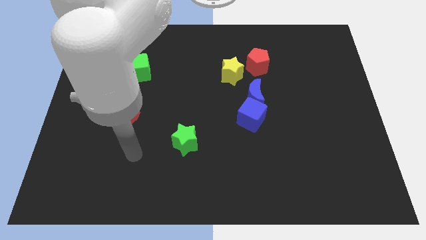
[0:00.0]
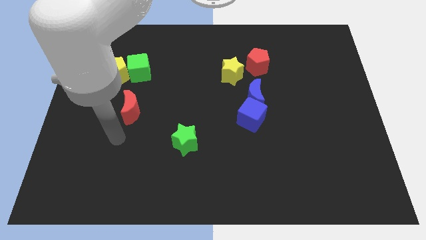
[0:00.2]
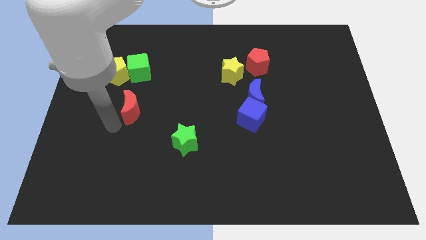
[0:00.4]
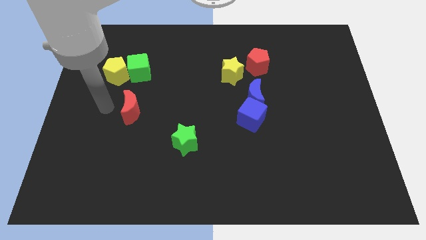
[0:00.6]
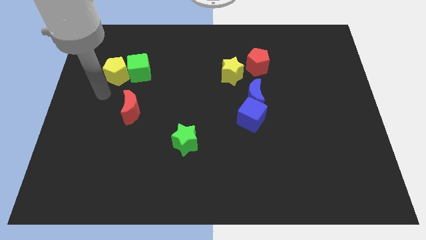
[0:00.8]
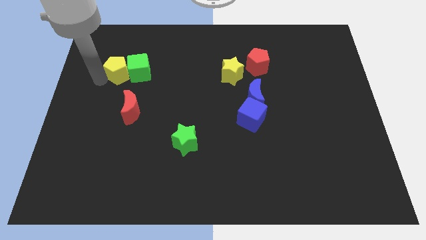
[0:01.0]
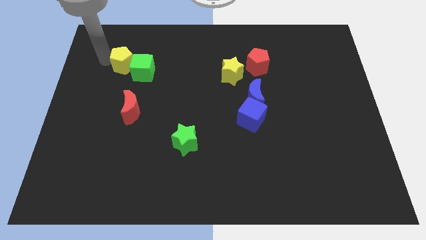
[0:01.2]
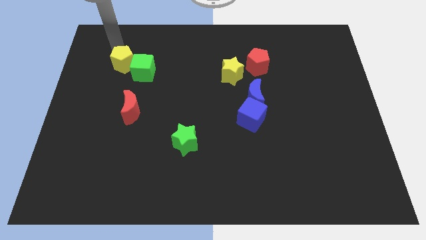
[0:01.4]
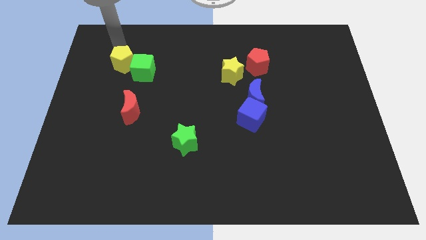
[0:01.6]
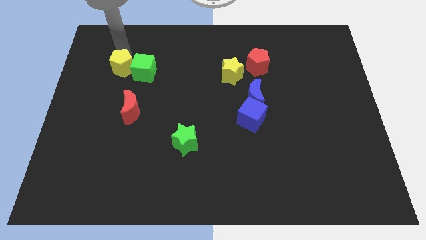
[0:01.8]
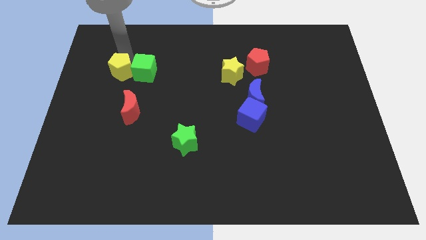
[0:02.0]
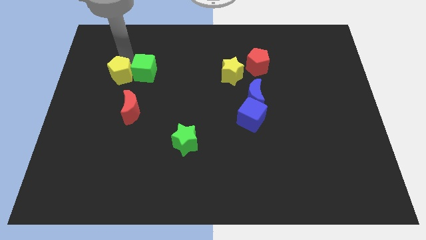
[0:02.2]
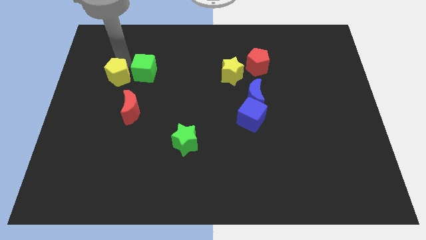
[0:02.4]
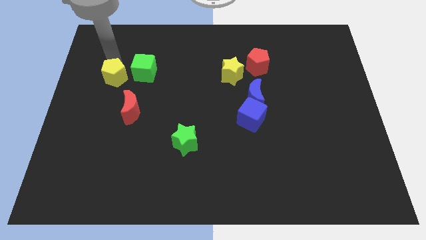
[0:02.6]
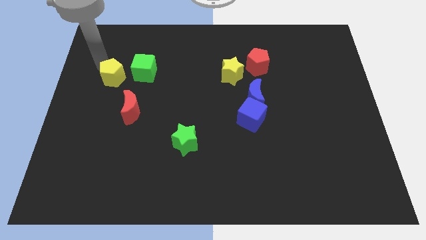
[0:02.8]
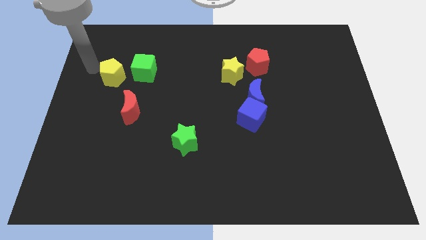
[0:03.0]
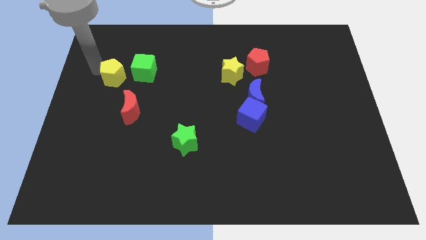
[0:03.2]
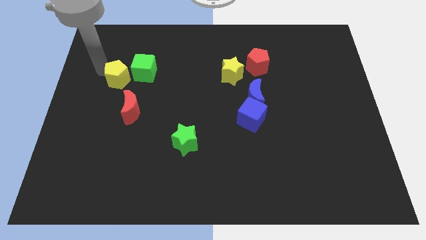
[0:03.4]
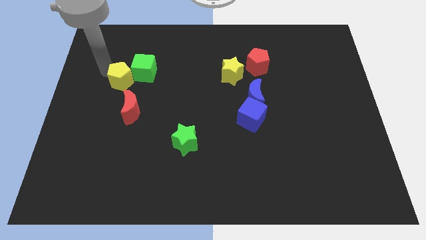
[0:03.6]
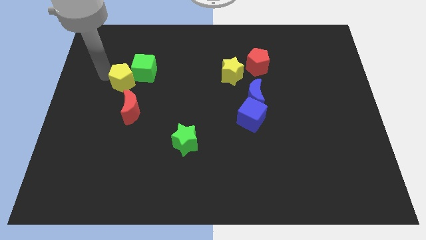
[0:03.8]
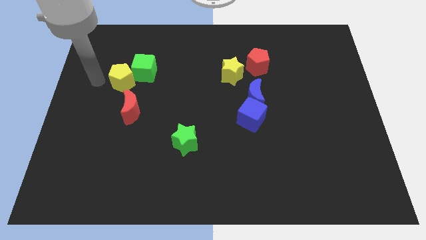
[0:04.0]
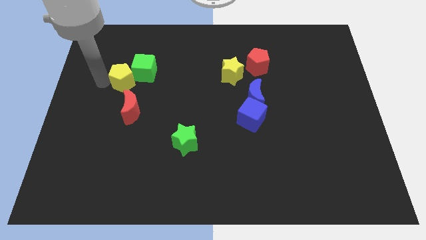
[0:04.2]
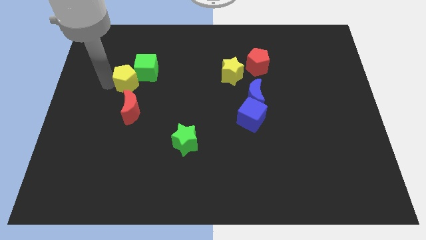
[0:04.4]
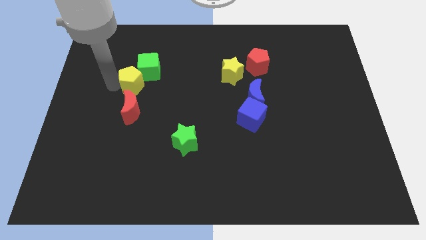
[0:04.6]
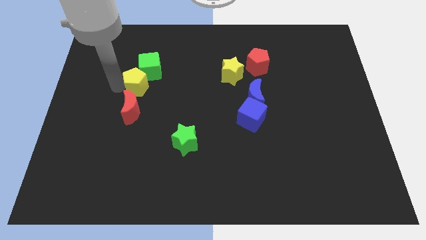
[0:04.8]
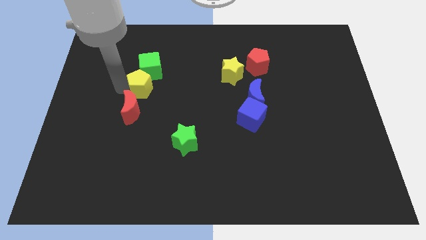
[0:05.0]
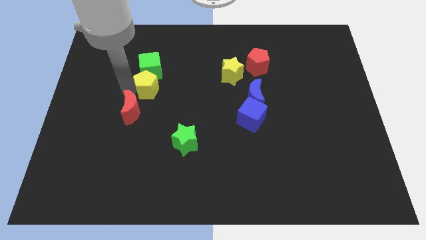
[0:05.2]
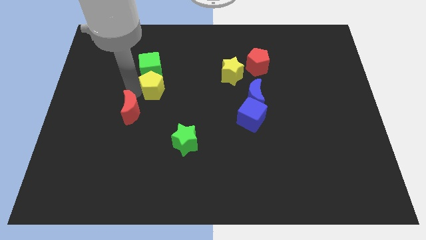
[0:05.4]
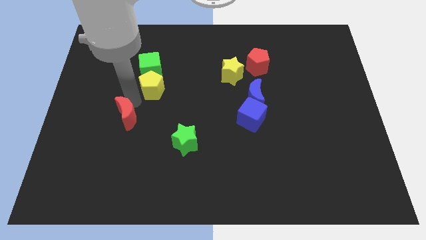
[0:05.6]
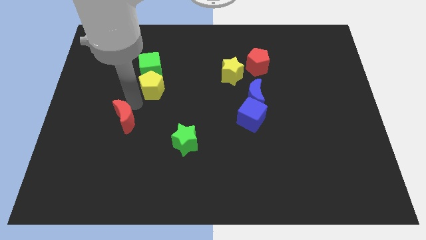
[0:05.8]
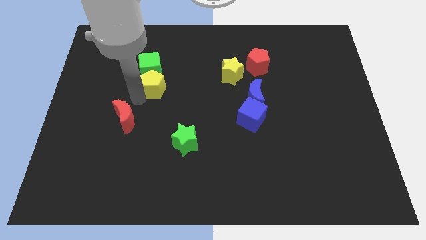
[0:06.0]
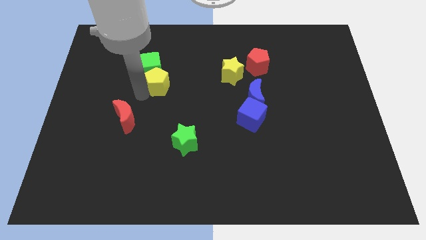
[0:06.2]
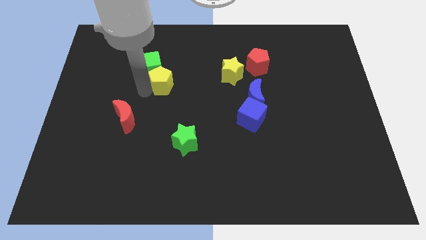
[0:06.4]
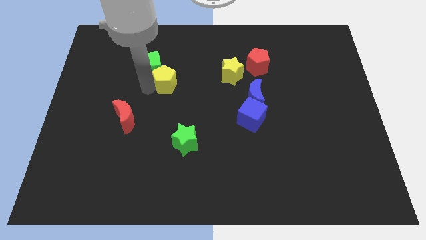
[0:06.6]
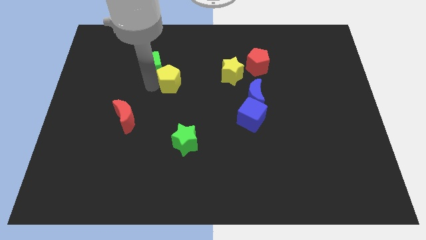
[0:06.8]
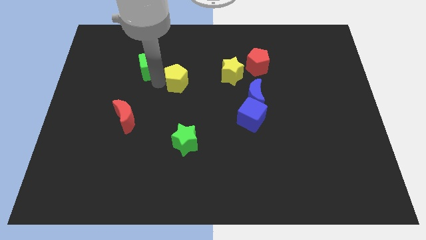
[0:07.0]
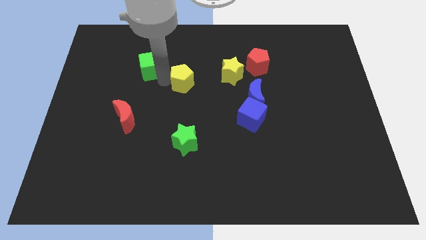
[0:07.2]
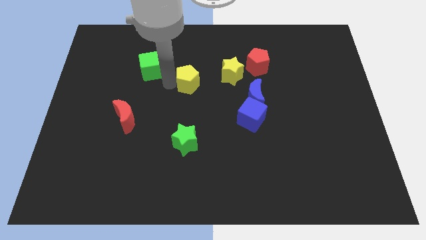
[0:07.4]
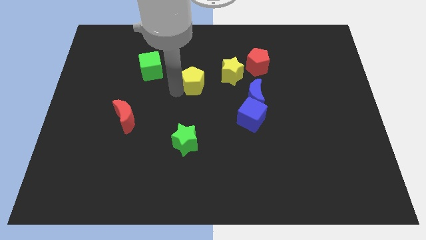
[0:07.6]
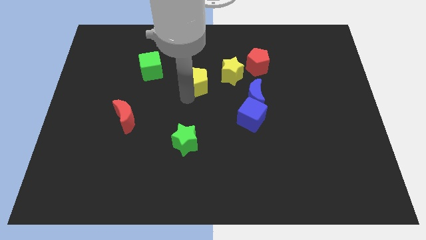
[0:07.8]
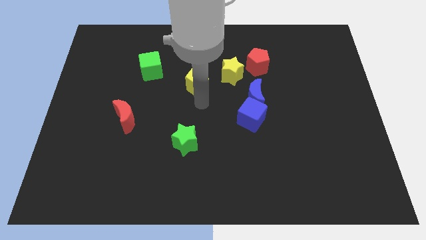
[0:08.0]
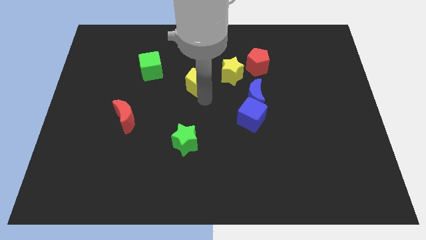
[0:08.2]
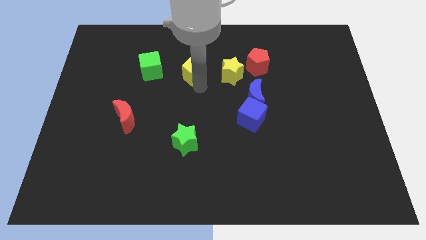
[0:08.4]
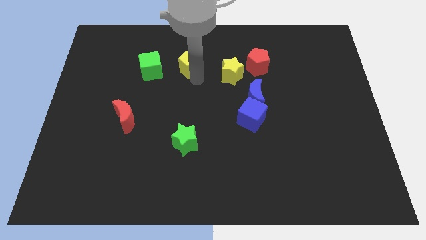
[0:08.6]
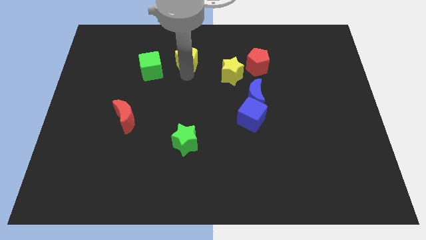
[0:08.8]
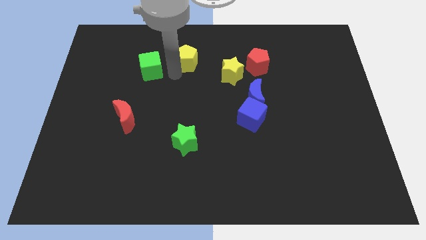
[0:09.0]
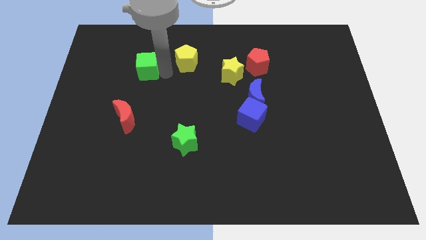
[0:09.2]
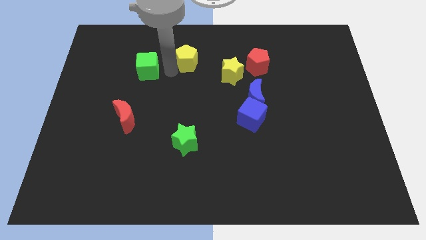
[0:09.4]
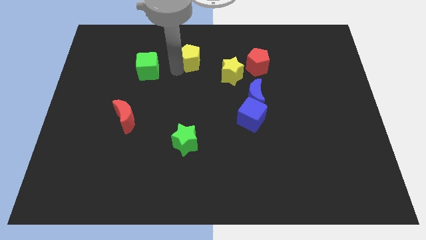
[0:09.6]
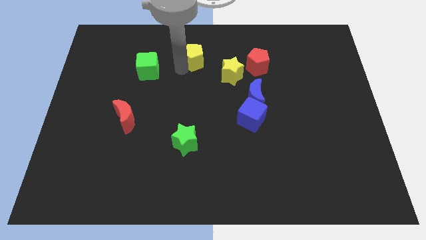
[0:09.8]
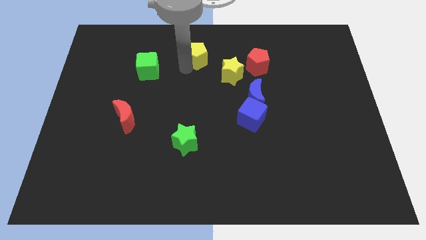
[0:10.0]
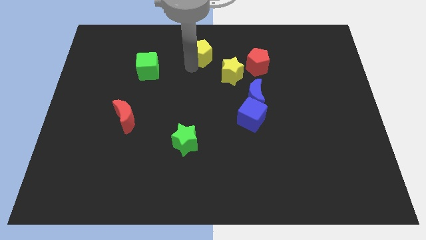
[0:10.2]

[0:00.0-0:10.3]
move the yellow pentagon to the towards your base
